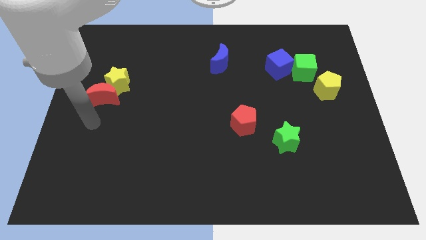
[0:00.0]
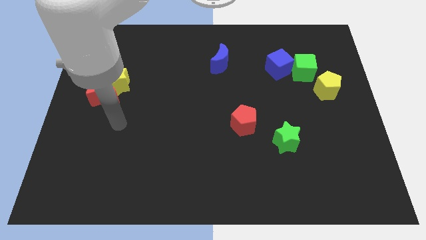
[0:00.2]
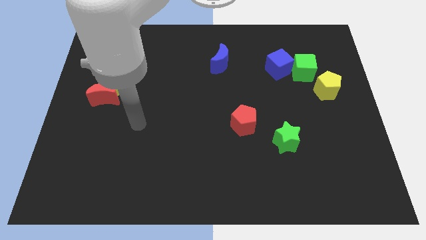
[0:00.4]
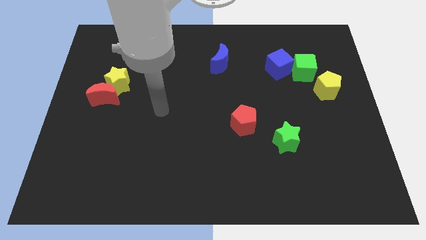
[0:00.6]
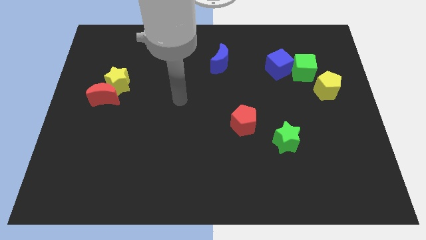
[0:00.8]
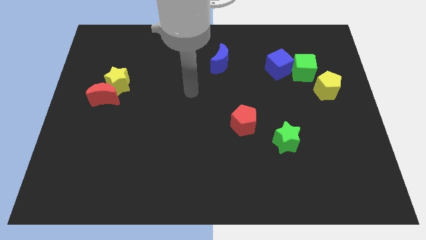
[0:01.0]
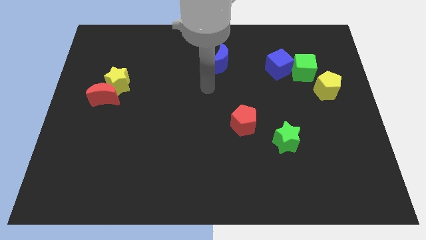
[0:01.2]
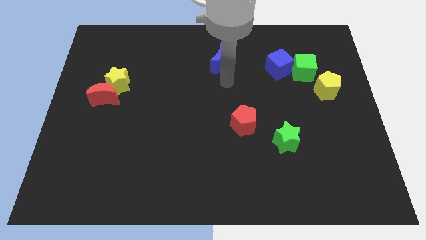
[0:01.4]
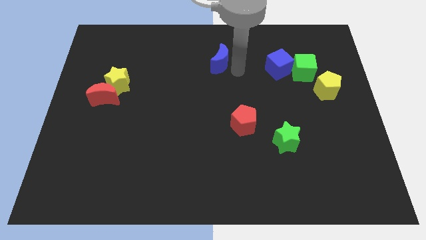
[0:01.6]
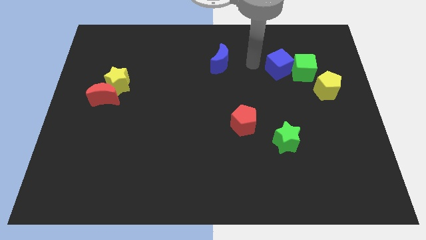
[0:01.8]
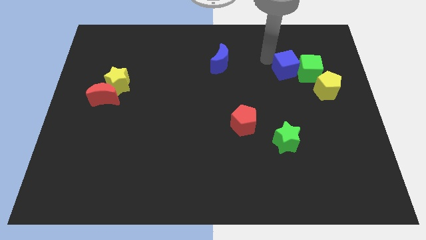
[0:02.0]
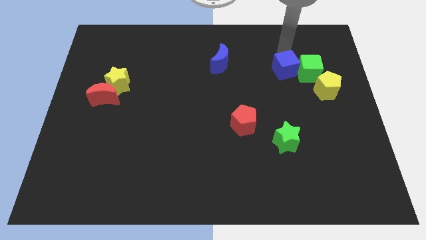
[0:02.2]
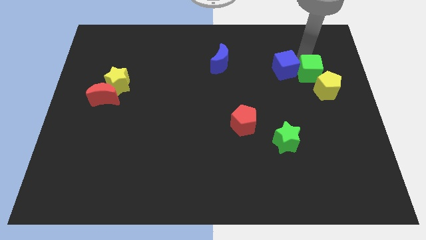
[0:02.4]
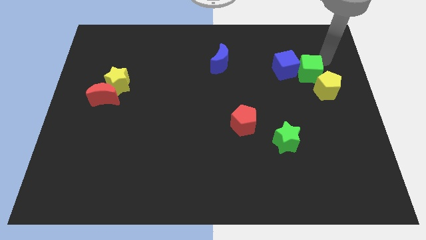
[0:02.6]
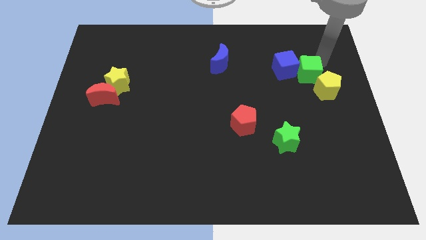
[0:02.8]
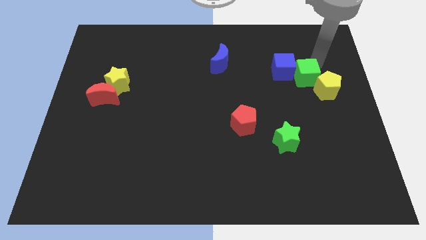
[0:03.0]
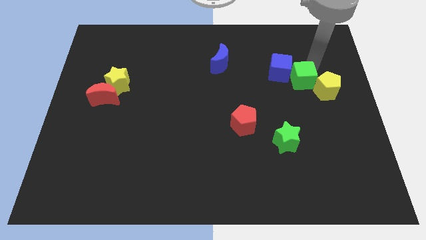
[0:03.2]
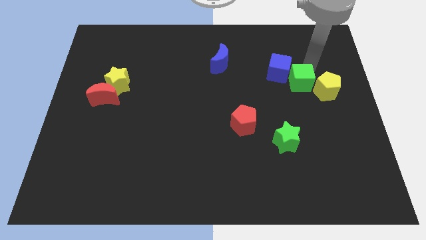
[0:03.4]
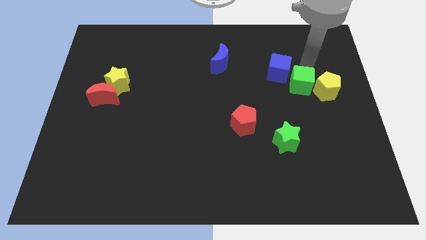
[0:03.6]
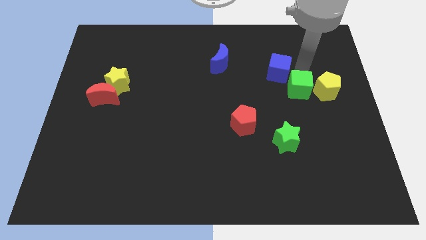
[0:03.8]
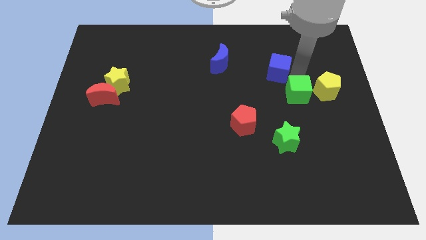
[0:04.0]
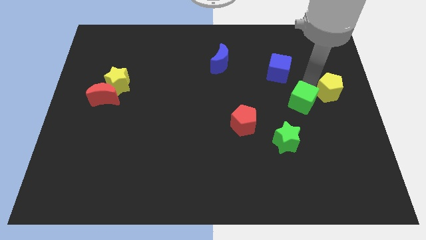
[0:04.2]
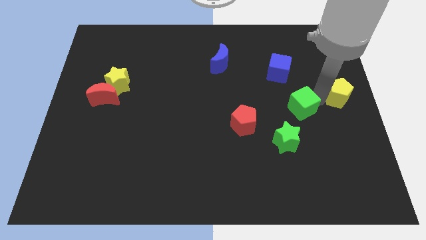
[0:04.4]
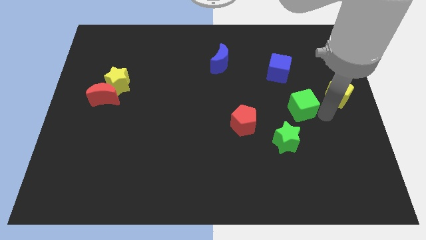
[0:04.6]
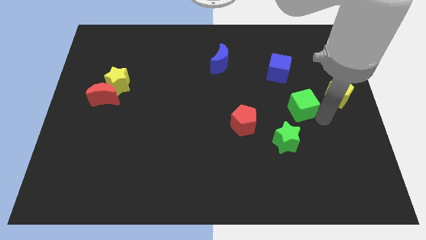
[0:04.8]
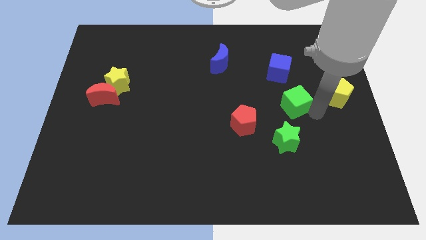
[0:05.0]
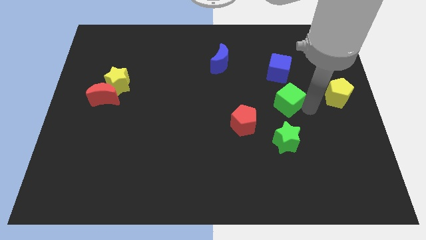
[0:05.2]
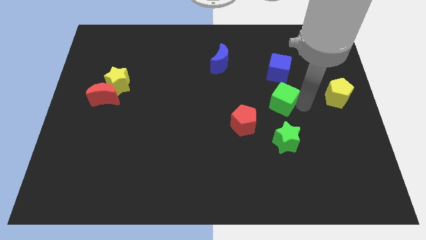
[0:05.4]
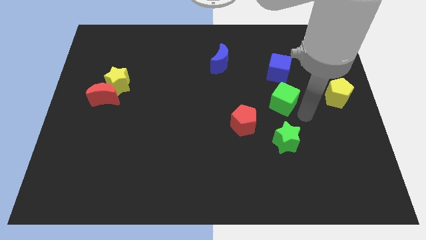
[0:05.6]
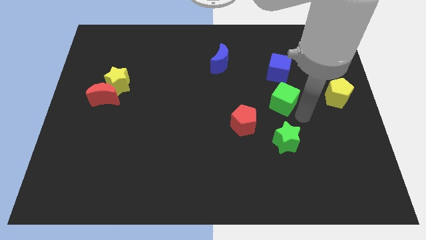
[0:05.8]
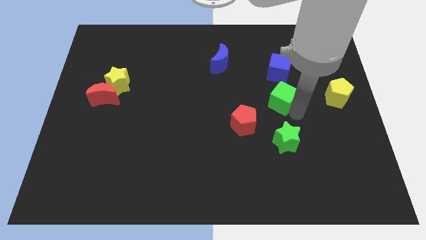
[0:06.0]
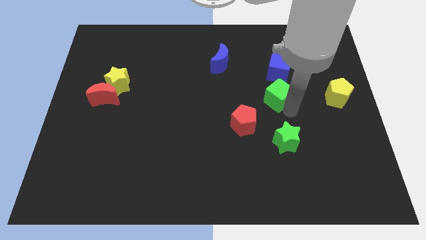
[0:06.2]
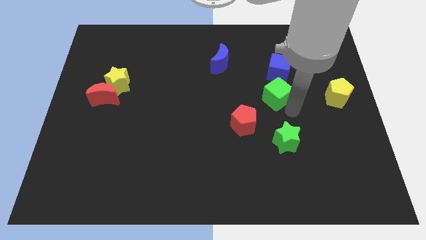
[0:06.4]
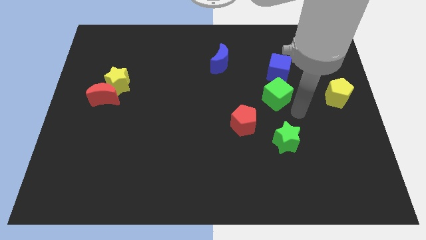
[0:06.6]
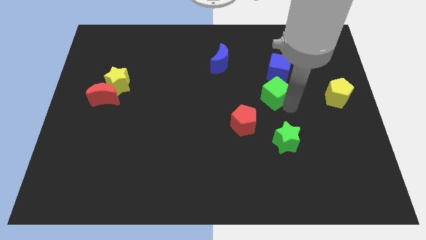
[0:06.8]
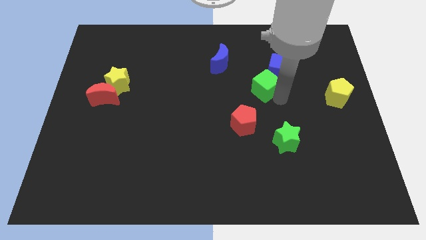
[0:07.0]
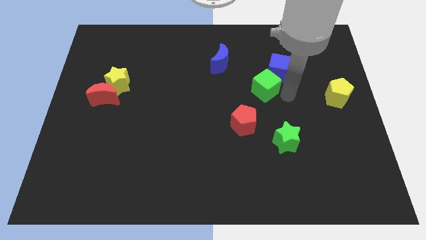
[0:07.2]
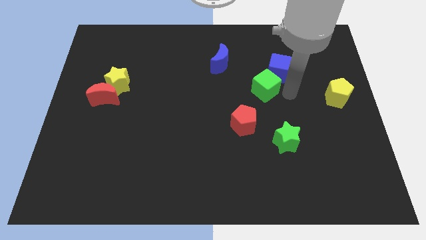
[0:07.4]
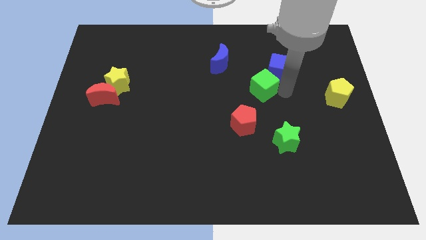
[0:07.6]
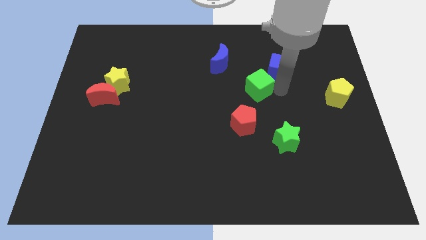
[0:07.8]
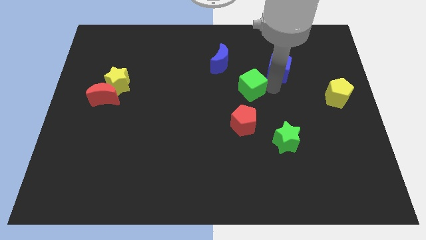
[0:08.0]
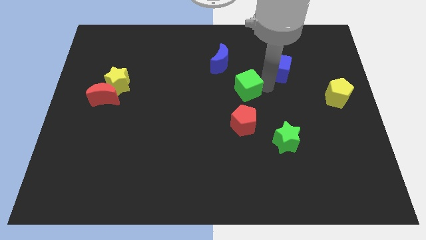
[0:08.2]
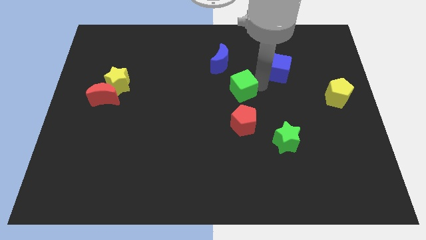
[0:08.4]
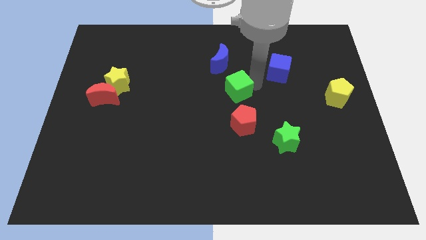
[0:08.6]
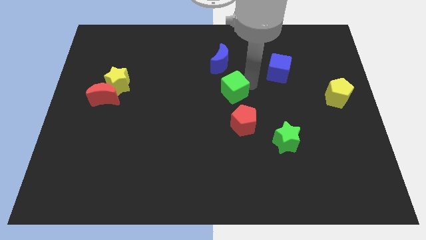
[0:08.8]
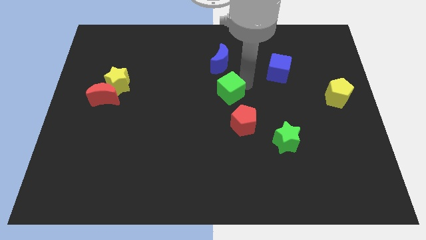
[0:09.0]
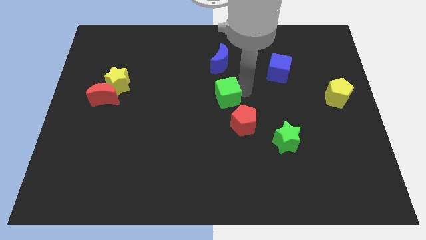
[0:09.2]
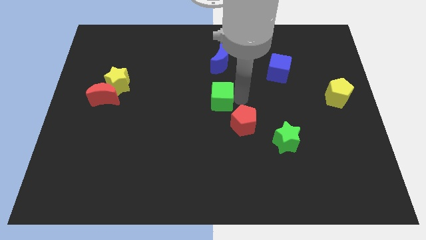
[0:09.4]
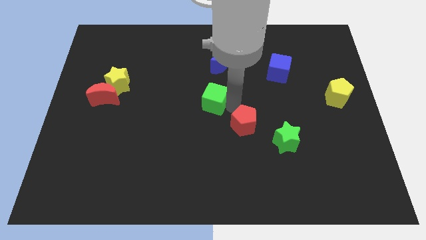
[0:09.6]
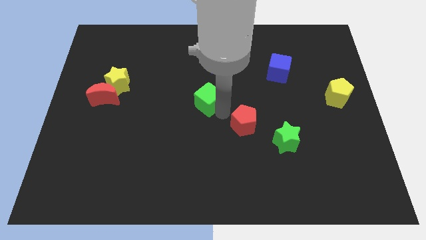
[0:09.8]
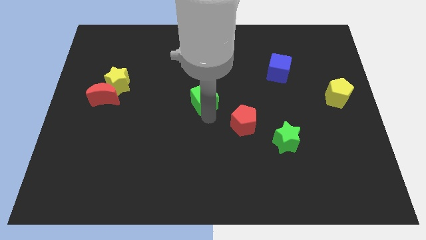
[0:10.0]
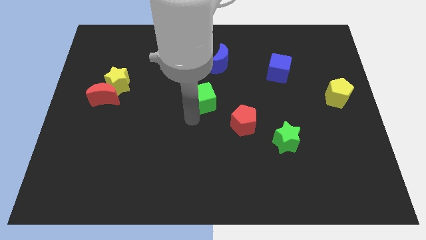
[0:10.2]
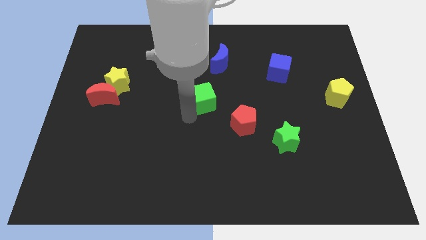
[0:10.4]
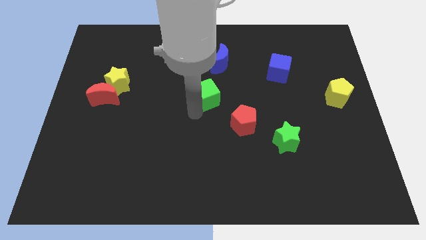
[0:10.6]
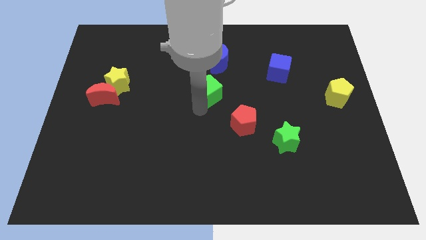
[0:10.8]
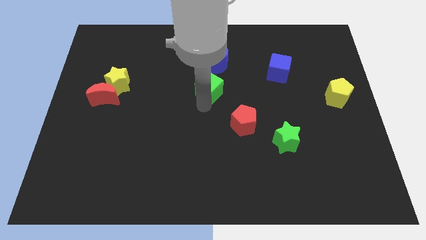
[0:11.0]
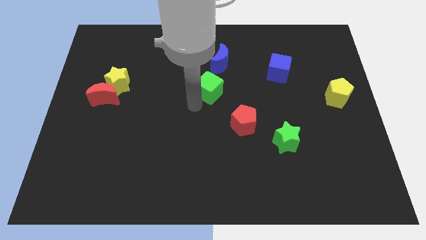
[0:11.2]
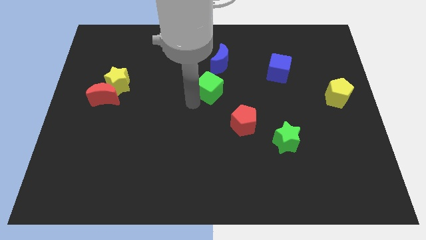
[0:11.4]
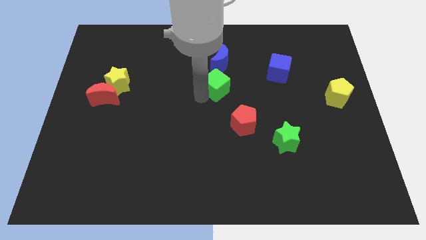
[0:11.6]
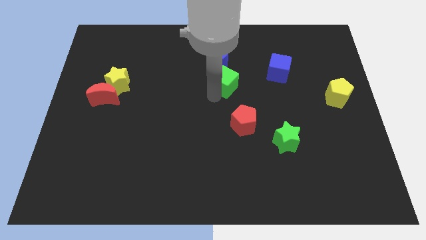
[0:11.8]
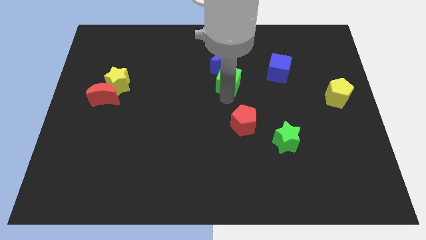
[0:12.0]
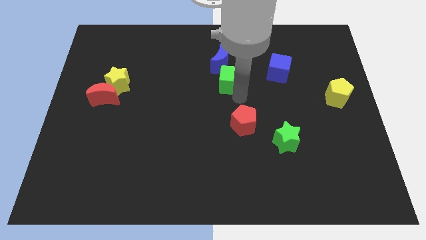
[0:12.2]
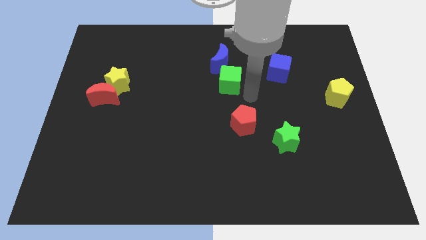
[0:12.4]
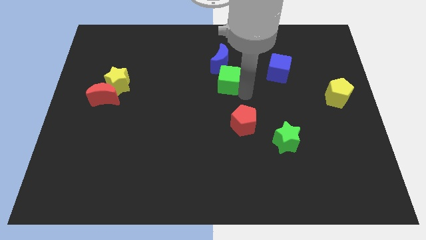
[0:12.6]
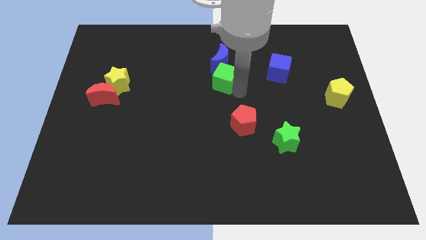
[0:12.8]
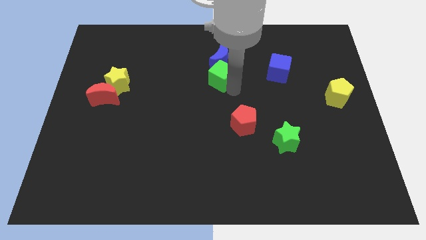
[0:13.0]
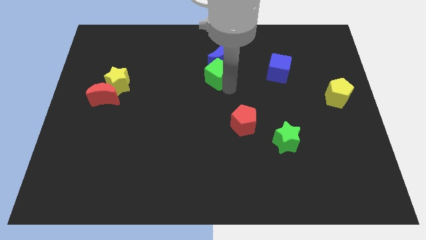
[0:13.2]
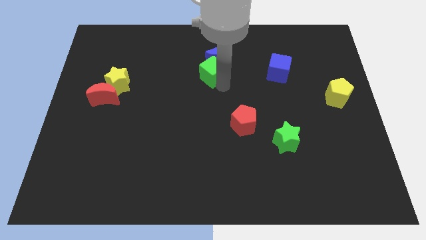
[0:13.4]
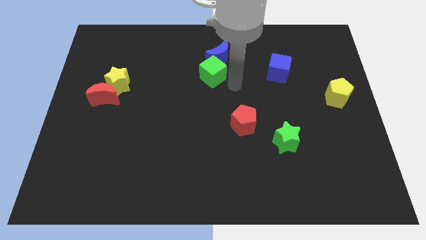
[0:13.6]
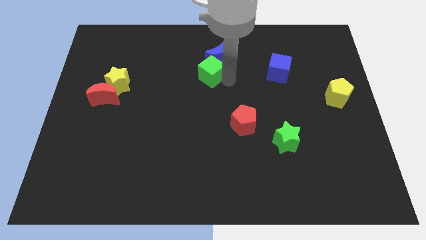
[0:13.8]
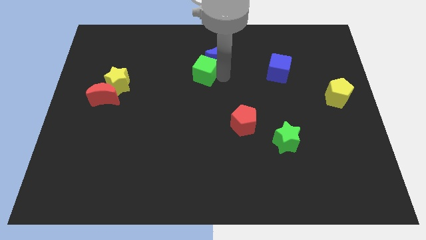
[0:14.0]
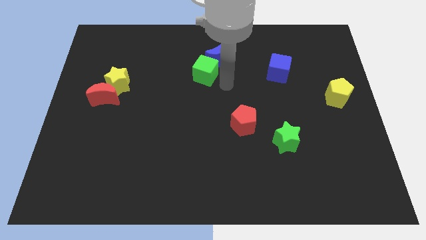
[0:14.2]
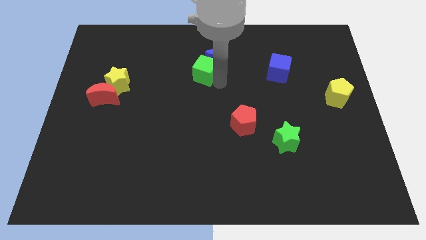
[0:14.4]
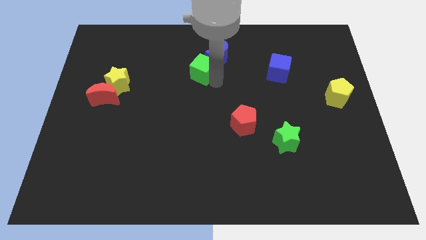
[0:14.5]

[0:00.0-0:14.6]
slide the green cube to the left side of the blue moon

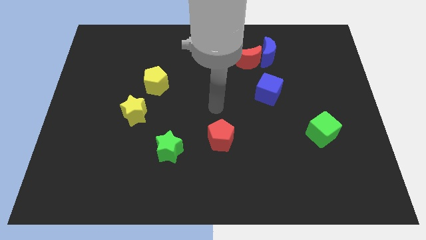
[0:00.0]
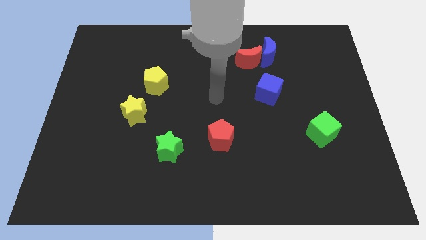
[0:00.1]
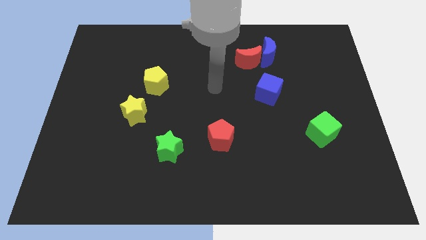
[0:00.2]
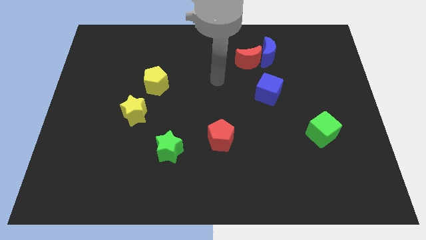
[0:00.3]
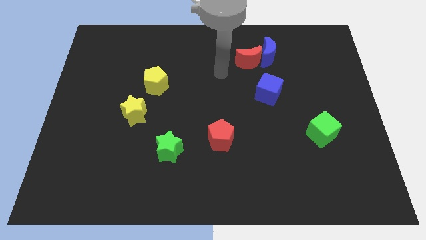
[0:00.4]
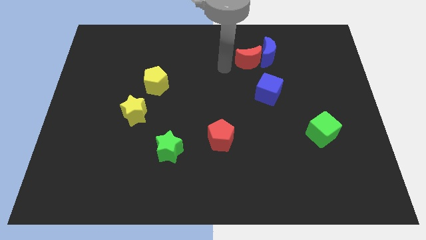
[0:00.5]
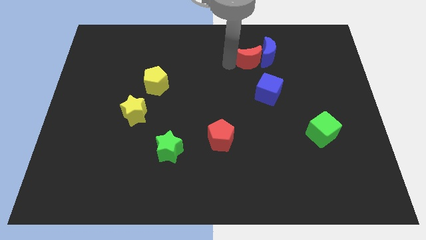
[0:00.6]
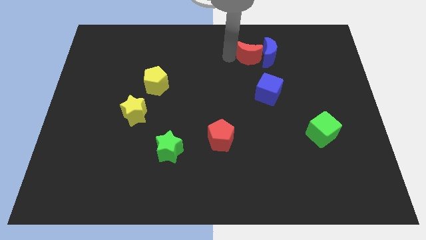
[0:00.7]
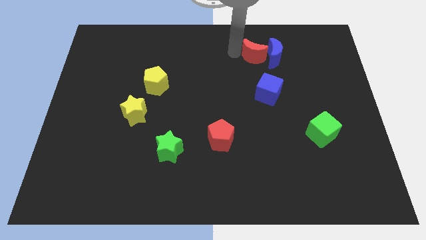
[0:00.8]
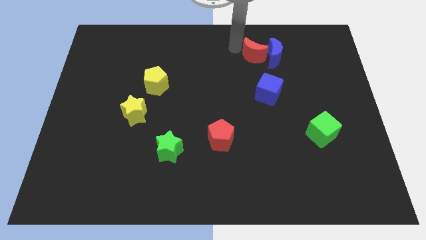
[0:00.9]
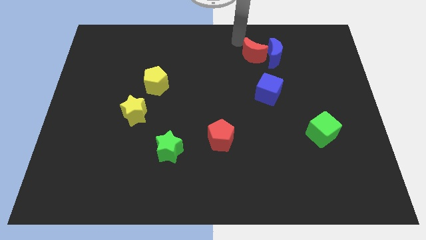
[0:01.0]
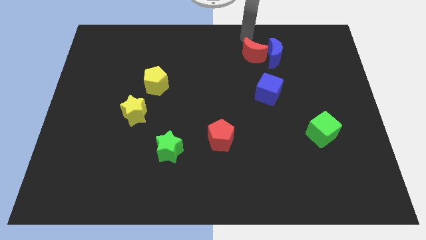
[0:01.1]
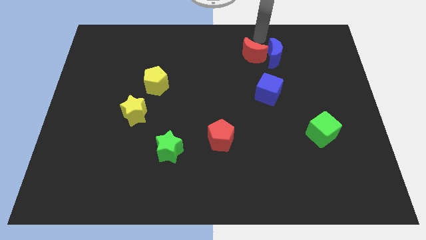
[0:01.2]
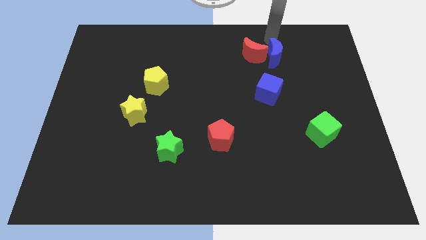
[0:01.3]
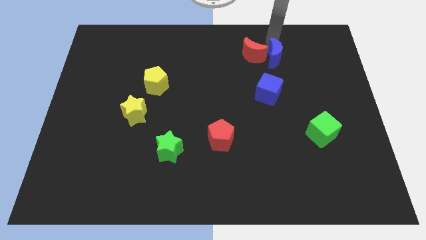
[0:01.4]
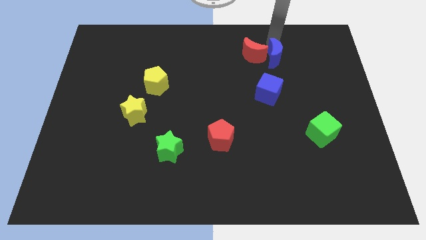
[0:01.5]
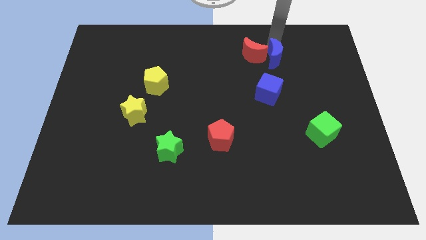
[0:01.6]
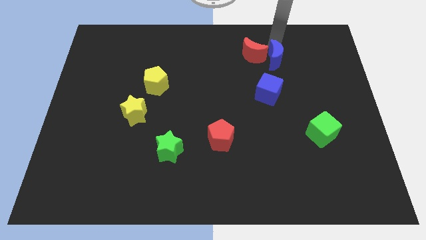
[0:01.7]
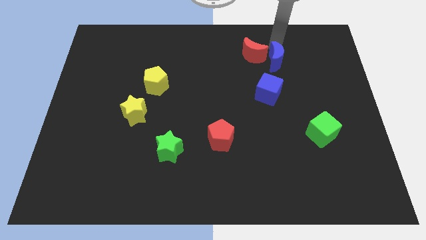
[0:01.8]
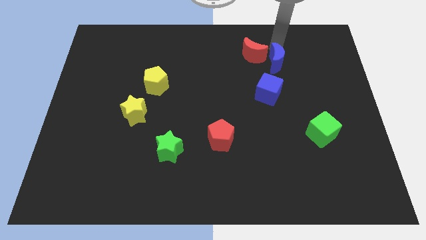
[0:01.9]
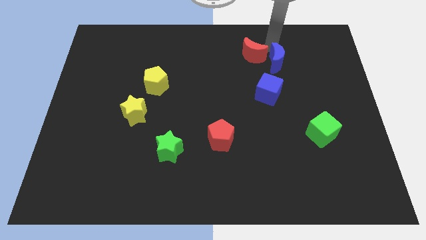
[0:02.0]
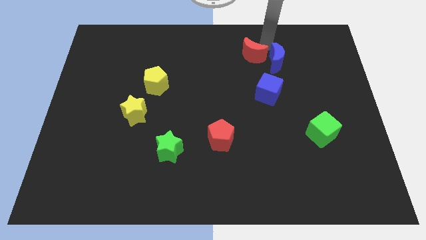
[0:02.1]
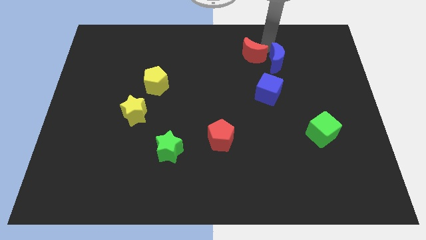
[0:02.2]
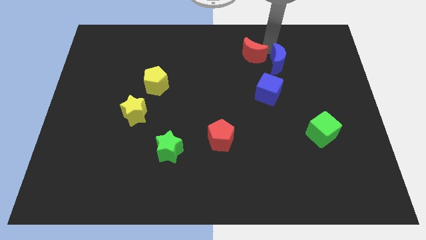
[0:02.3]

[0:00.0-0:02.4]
put the blue moon to the top right of the blue cube
